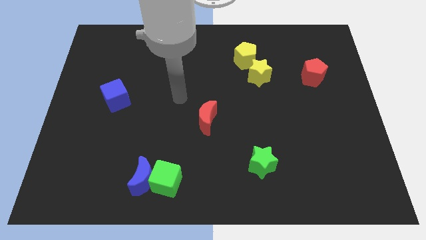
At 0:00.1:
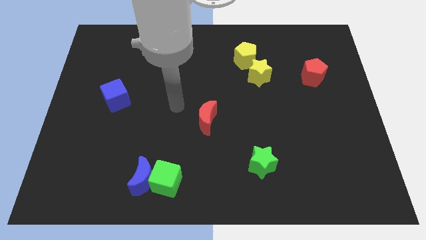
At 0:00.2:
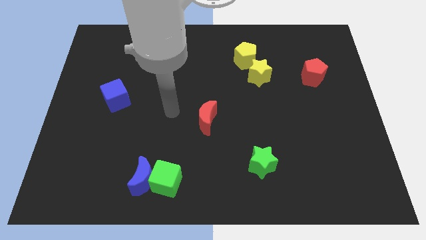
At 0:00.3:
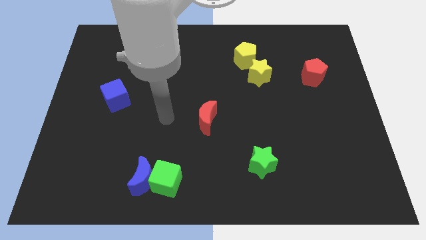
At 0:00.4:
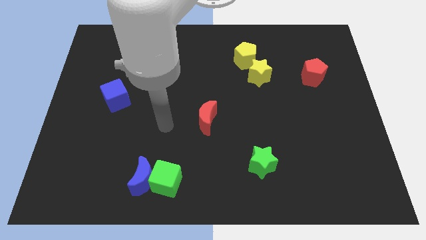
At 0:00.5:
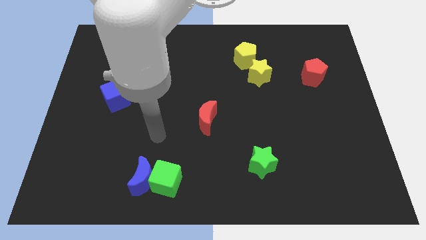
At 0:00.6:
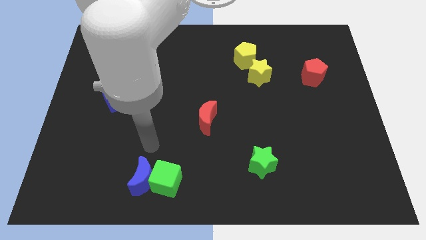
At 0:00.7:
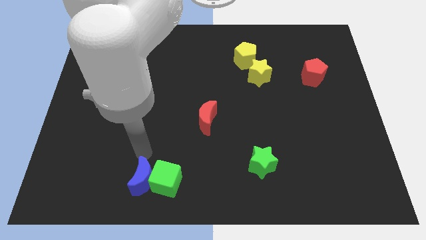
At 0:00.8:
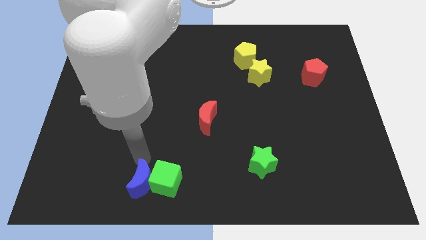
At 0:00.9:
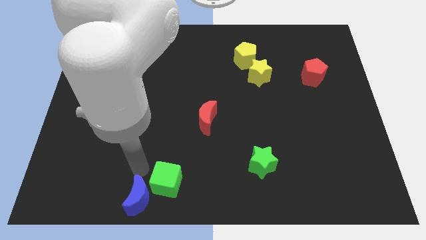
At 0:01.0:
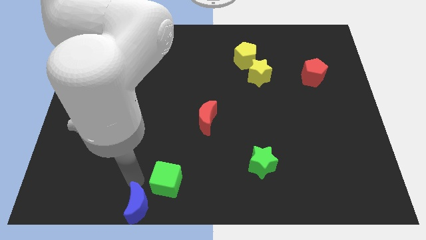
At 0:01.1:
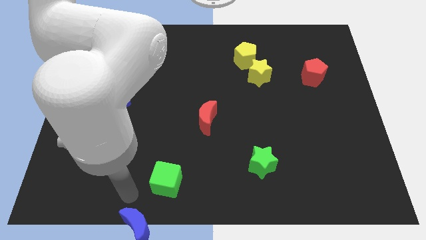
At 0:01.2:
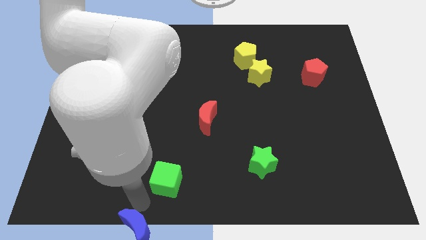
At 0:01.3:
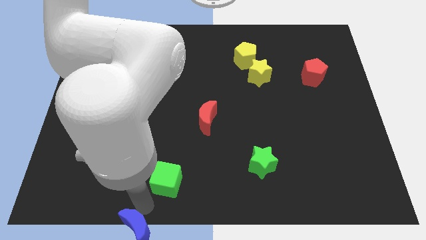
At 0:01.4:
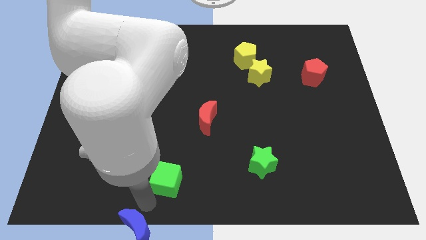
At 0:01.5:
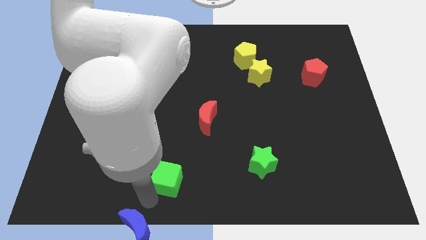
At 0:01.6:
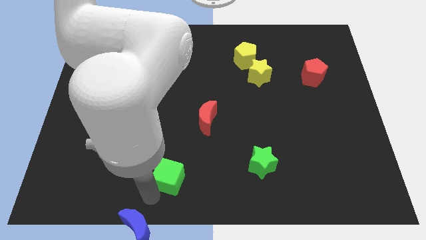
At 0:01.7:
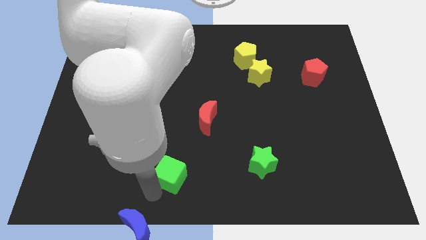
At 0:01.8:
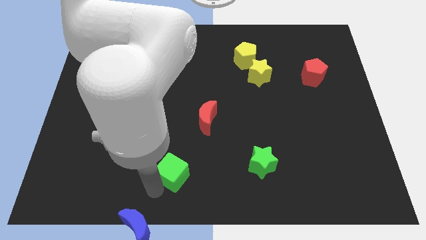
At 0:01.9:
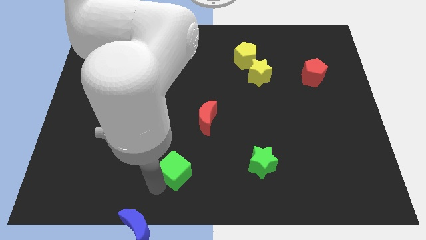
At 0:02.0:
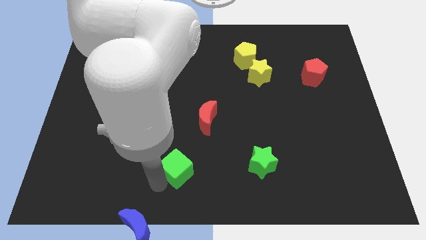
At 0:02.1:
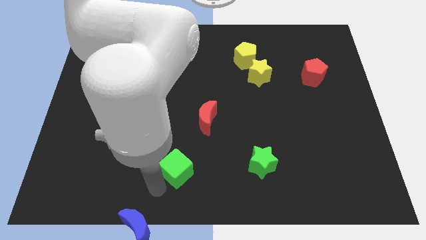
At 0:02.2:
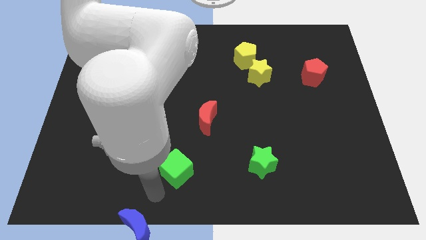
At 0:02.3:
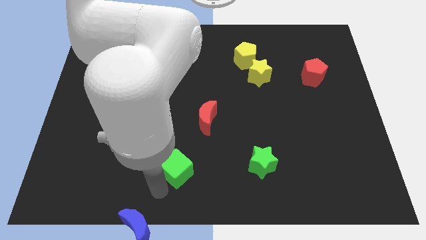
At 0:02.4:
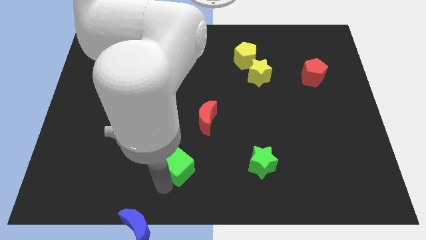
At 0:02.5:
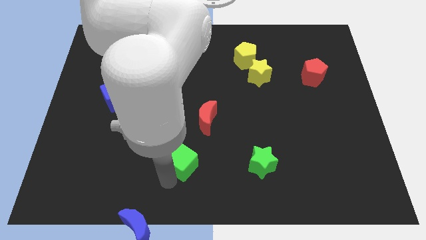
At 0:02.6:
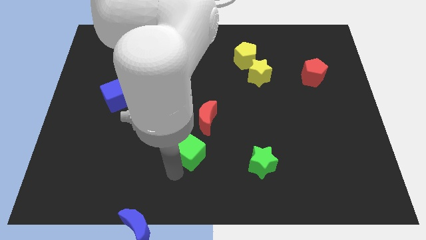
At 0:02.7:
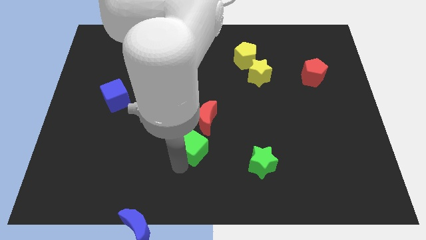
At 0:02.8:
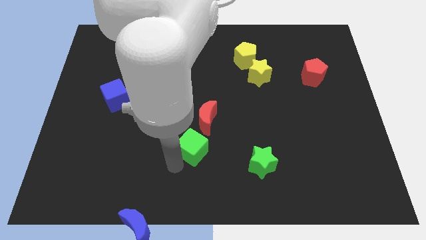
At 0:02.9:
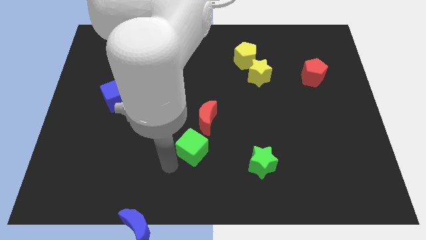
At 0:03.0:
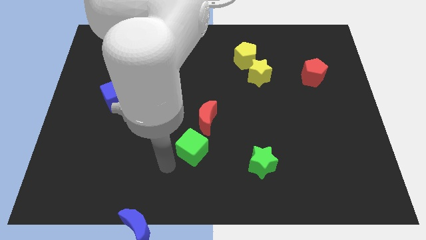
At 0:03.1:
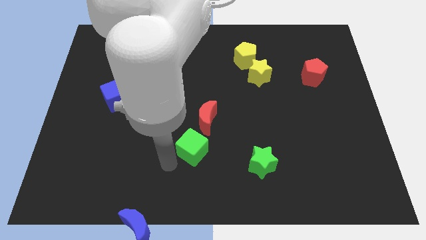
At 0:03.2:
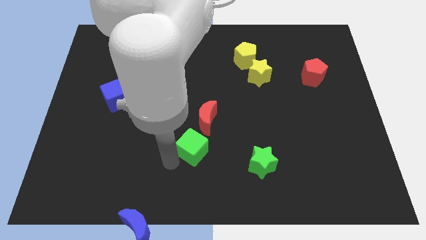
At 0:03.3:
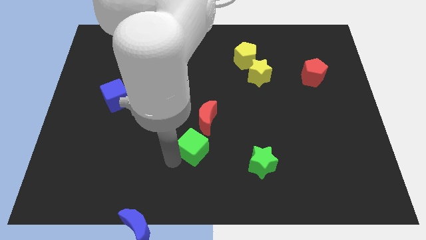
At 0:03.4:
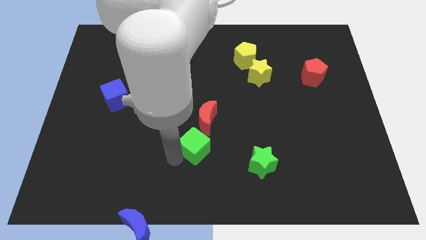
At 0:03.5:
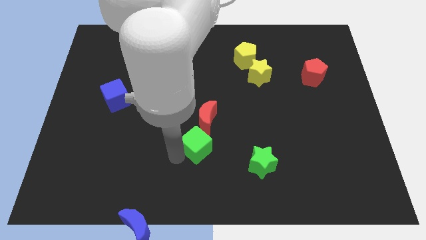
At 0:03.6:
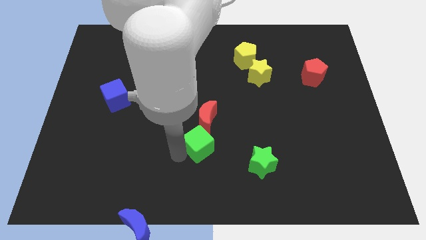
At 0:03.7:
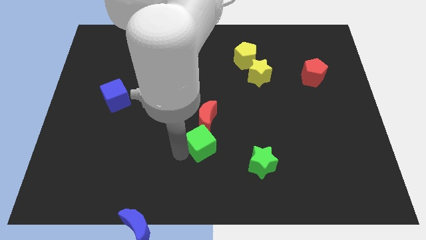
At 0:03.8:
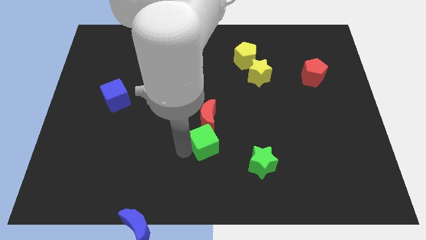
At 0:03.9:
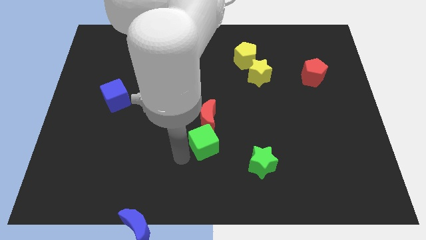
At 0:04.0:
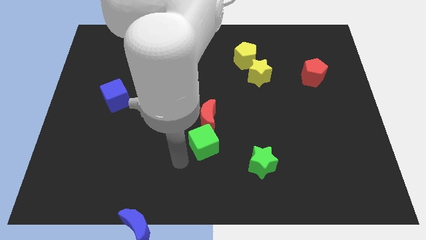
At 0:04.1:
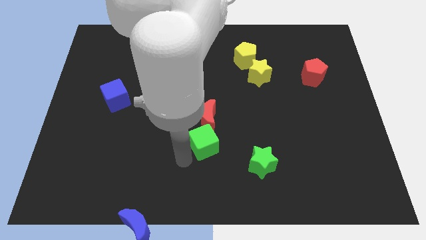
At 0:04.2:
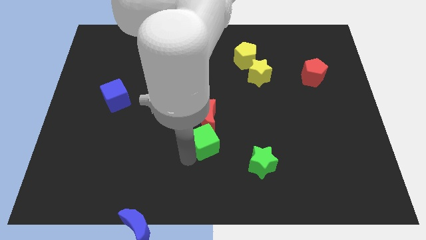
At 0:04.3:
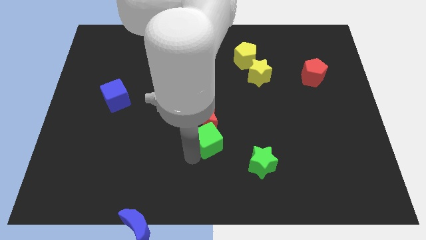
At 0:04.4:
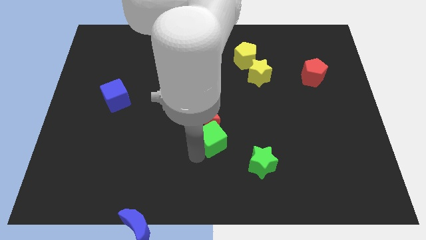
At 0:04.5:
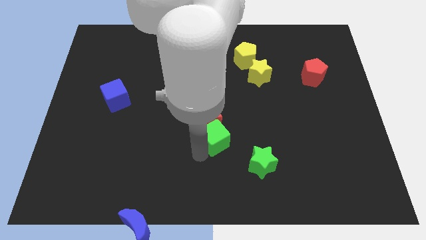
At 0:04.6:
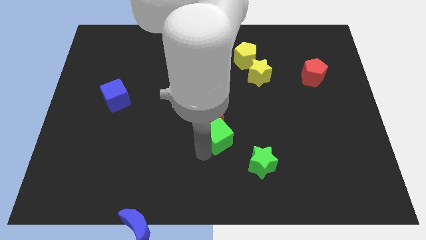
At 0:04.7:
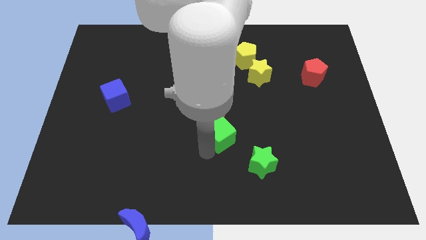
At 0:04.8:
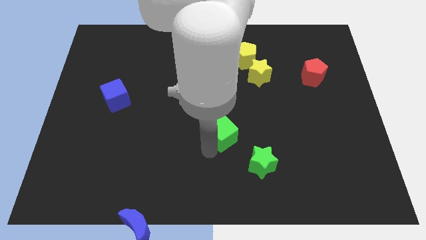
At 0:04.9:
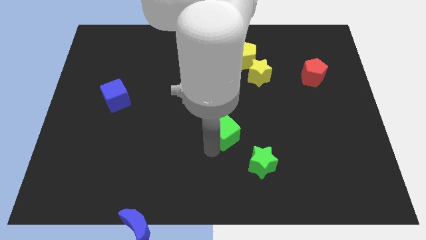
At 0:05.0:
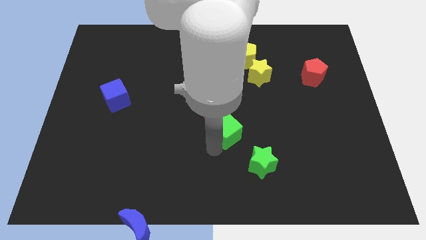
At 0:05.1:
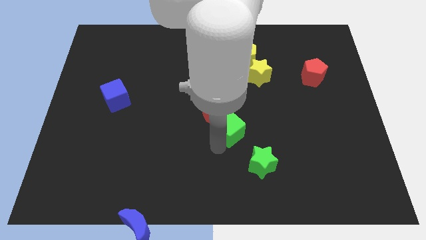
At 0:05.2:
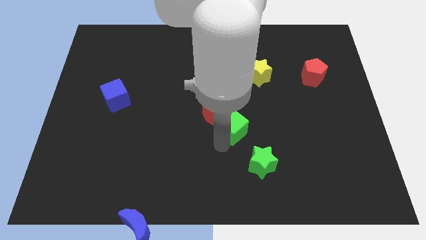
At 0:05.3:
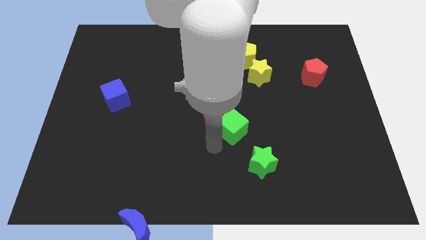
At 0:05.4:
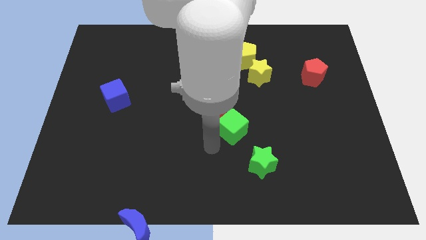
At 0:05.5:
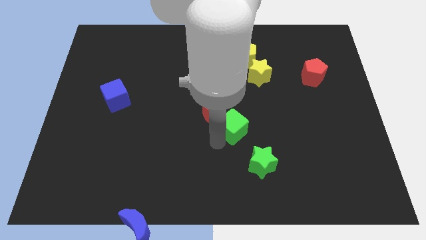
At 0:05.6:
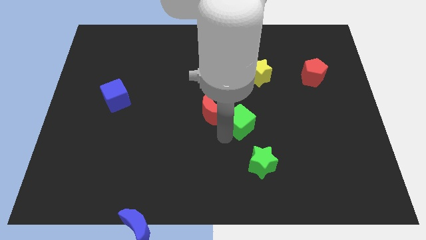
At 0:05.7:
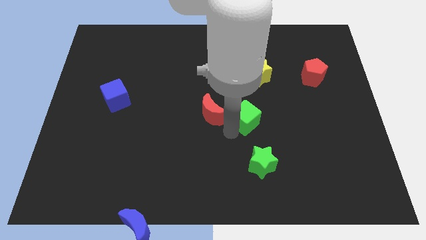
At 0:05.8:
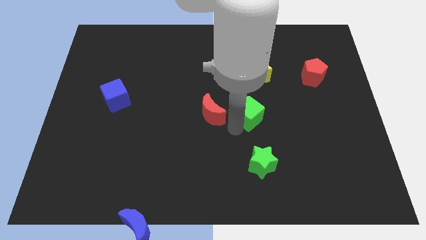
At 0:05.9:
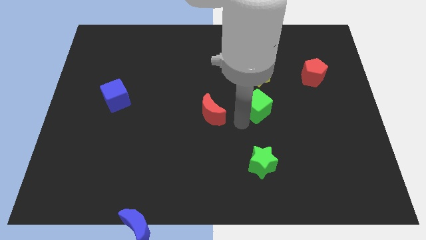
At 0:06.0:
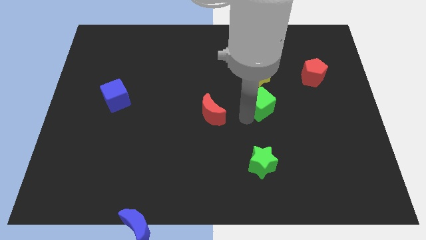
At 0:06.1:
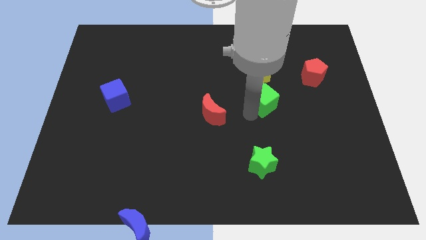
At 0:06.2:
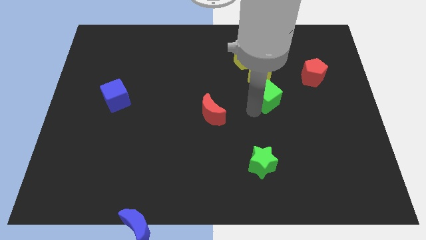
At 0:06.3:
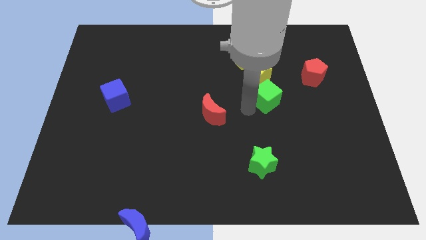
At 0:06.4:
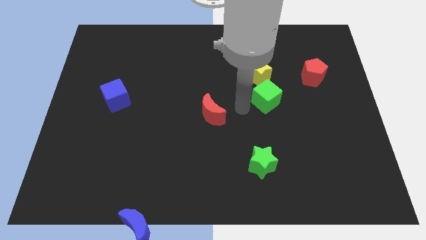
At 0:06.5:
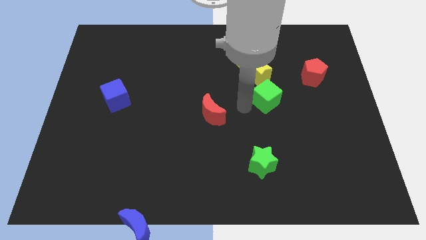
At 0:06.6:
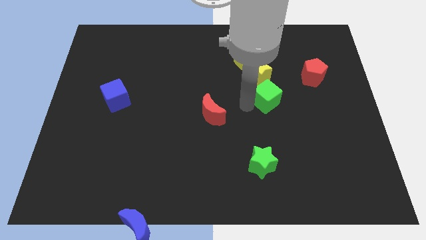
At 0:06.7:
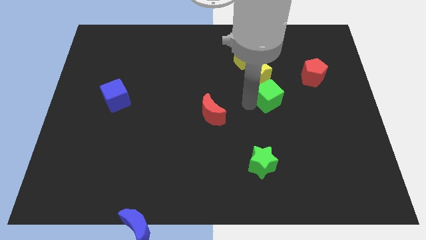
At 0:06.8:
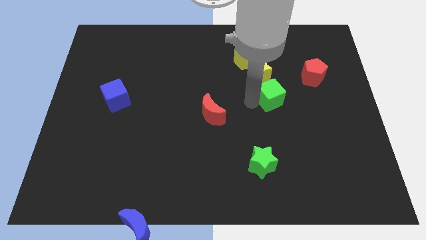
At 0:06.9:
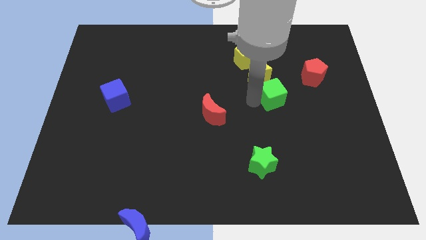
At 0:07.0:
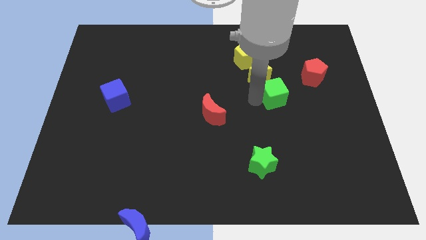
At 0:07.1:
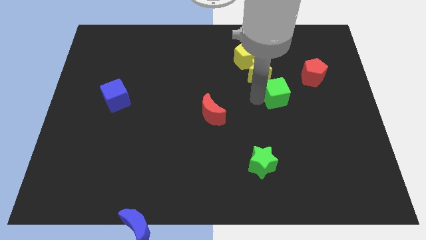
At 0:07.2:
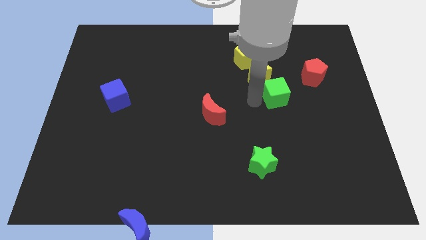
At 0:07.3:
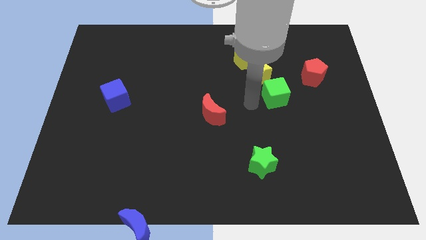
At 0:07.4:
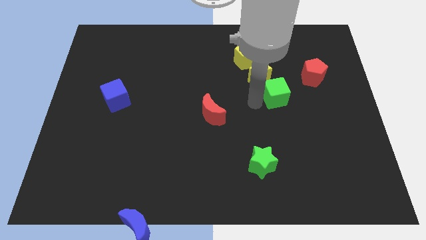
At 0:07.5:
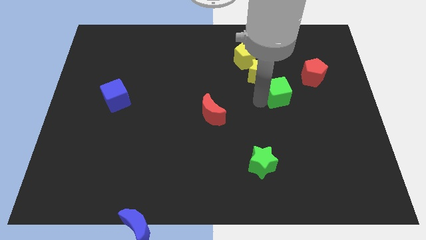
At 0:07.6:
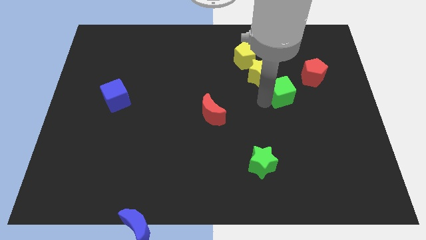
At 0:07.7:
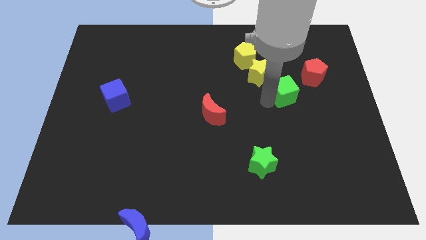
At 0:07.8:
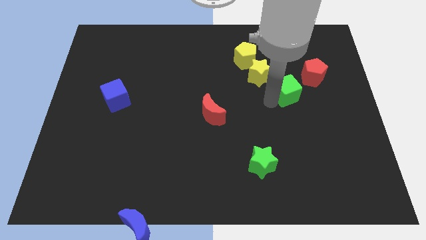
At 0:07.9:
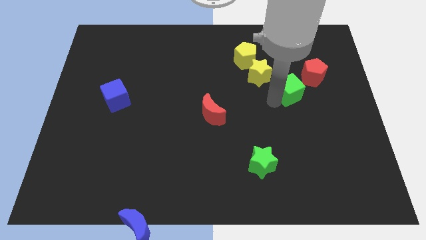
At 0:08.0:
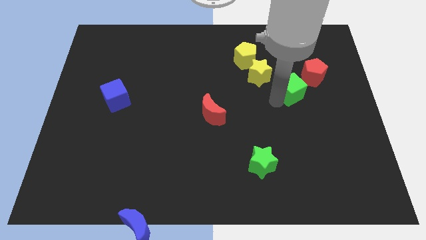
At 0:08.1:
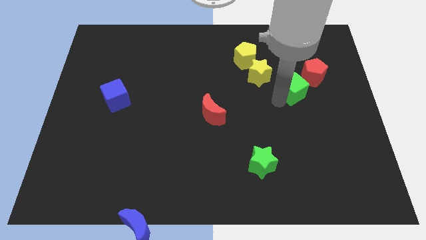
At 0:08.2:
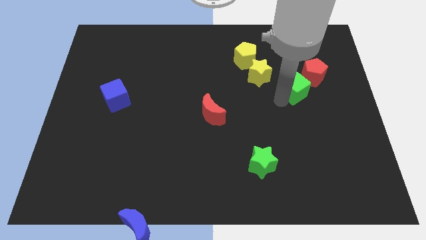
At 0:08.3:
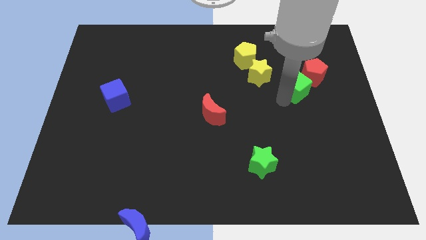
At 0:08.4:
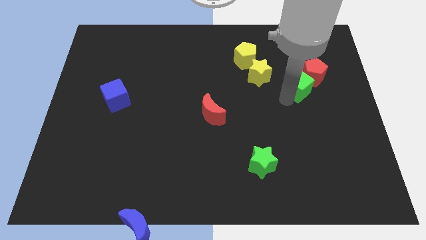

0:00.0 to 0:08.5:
slide the green cube towards the red pentagon
